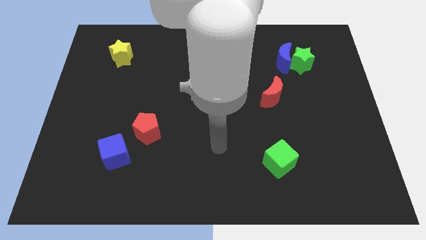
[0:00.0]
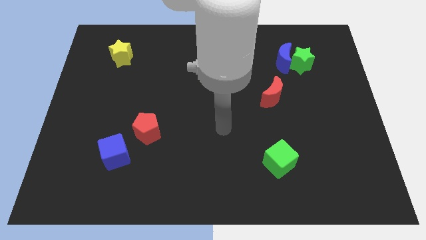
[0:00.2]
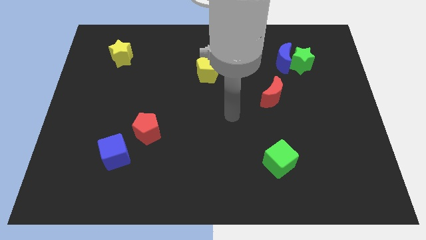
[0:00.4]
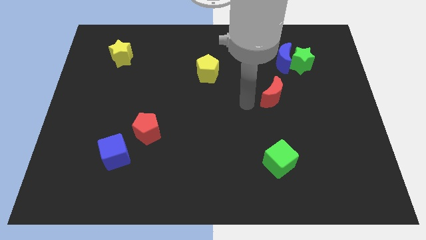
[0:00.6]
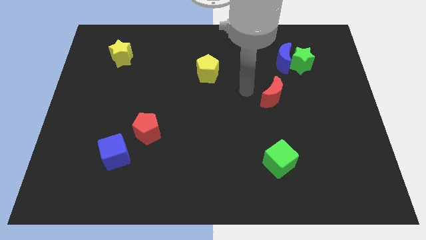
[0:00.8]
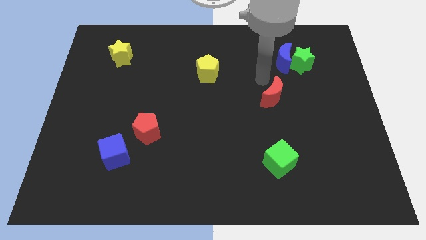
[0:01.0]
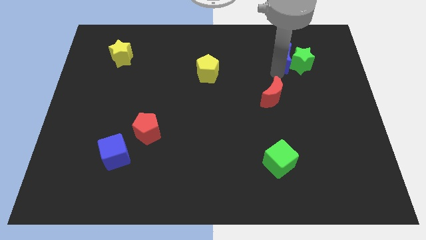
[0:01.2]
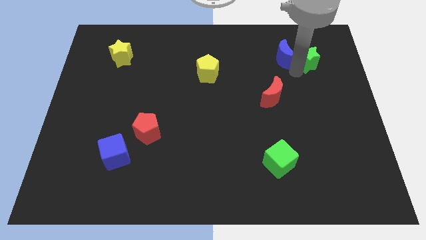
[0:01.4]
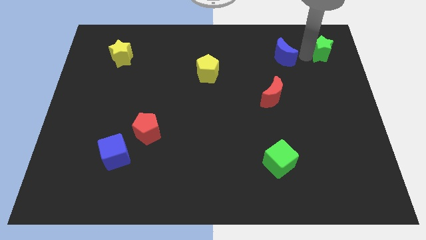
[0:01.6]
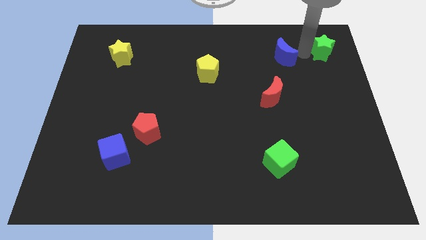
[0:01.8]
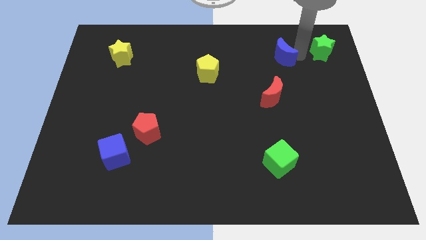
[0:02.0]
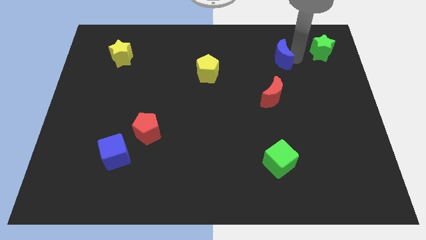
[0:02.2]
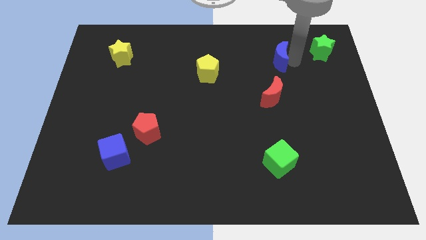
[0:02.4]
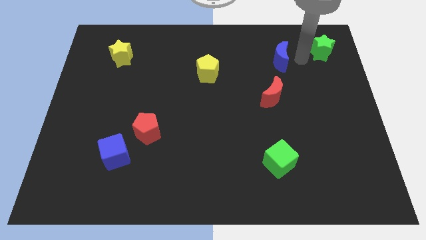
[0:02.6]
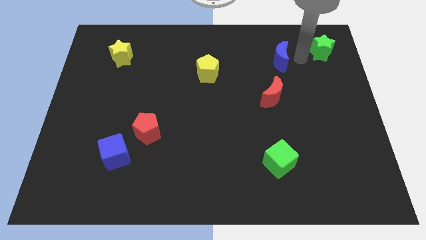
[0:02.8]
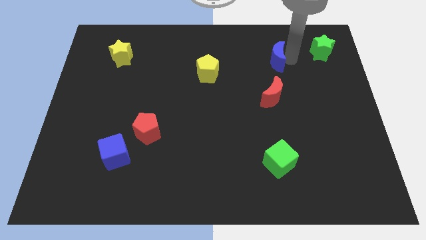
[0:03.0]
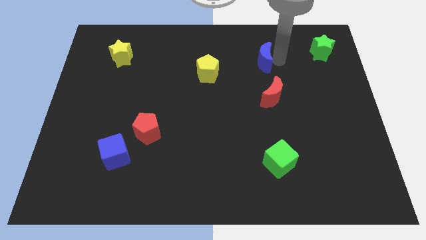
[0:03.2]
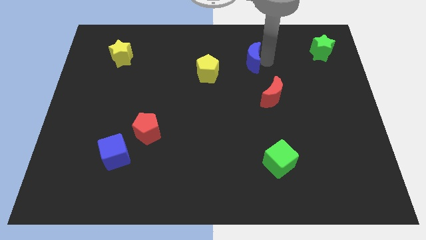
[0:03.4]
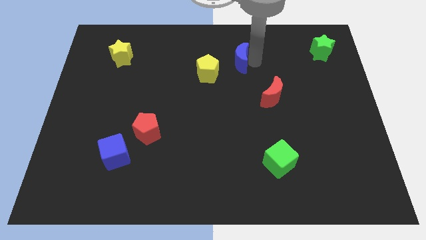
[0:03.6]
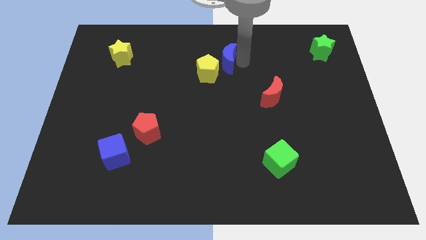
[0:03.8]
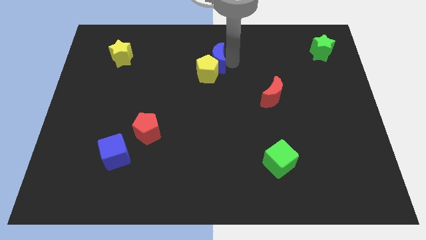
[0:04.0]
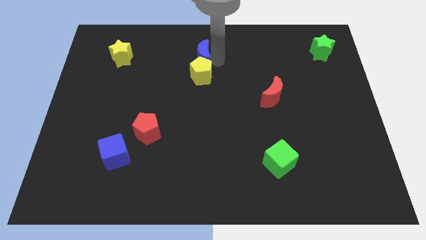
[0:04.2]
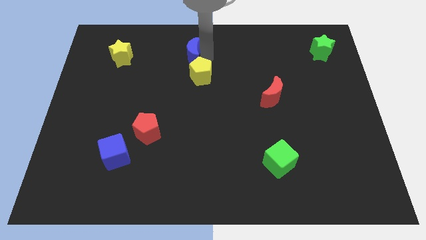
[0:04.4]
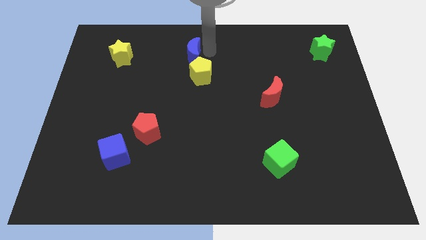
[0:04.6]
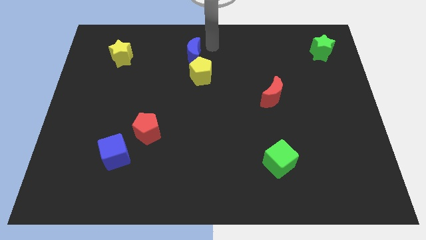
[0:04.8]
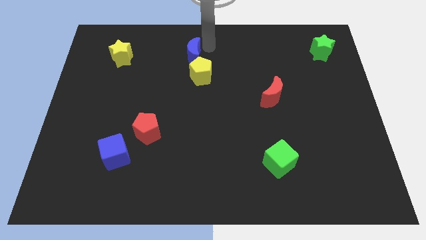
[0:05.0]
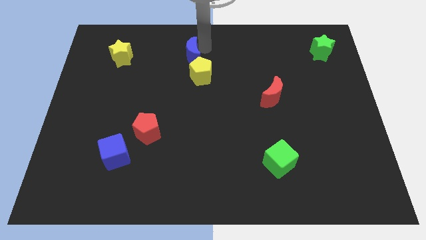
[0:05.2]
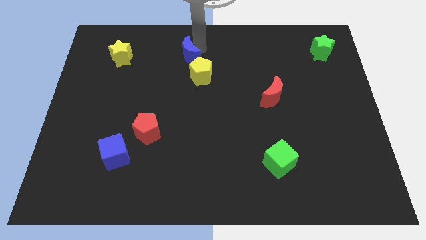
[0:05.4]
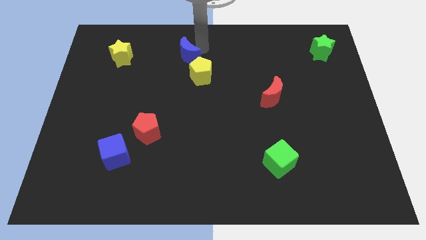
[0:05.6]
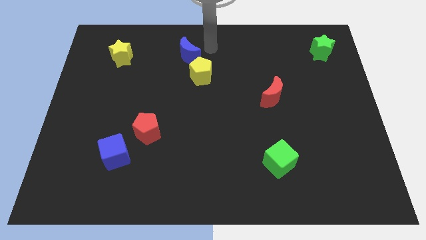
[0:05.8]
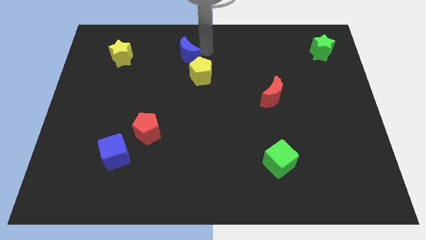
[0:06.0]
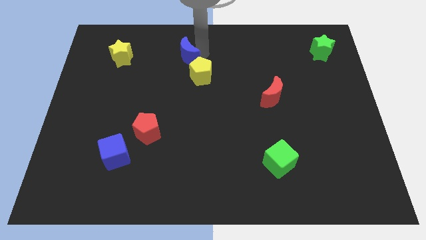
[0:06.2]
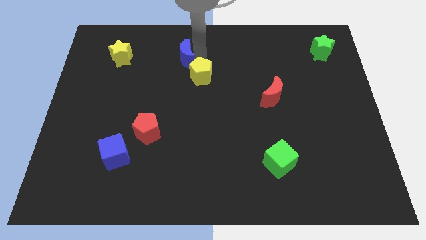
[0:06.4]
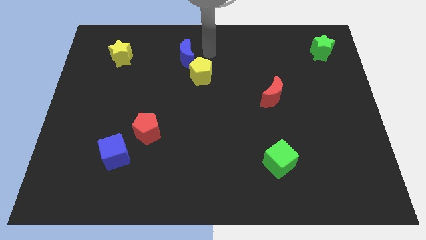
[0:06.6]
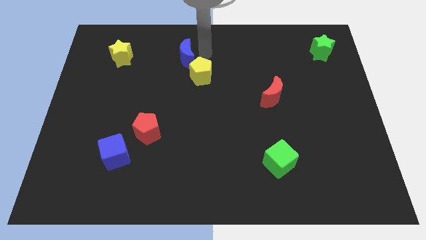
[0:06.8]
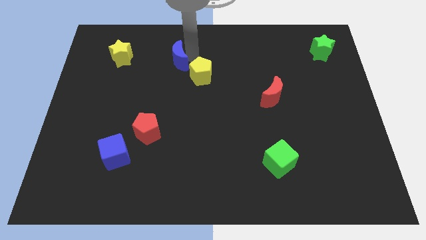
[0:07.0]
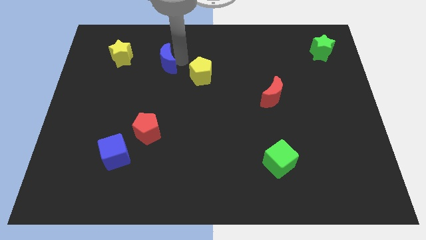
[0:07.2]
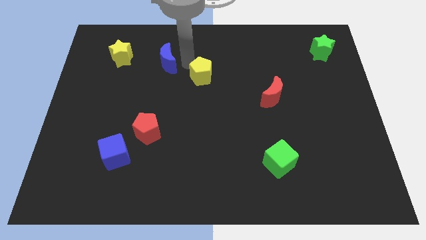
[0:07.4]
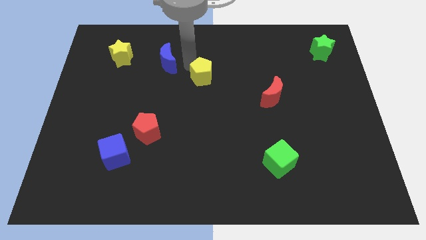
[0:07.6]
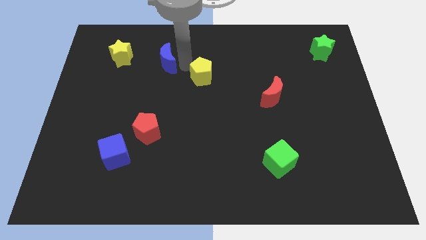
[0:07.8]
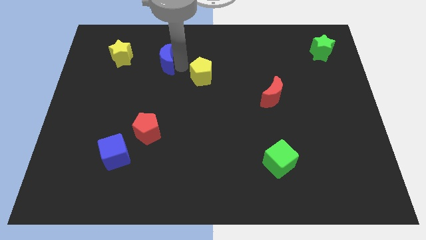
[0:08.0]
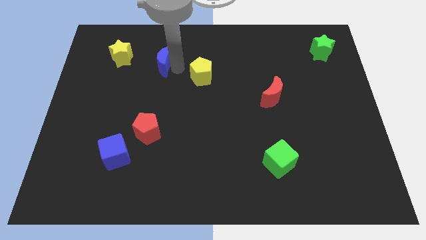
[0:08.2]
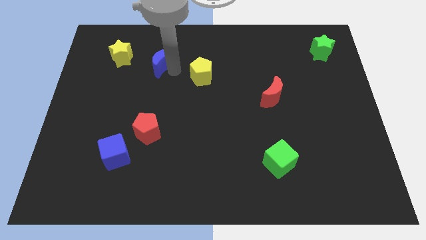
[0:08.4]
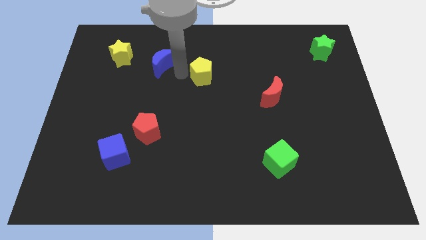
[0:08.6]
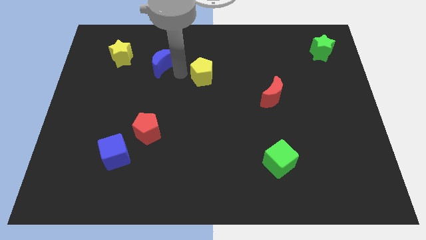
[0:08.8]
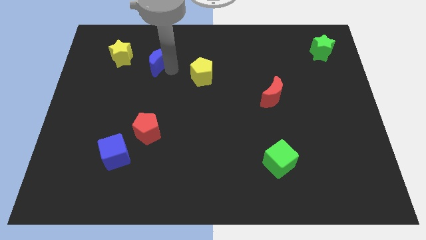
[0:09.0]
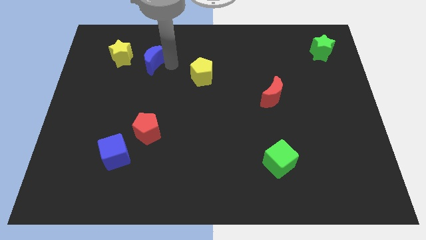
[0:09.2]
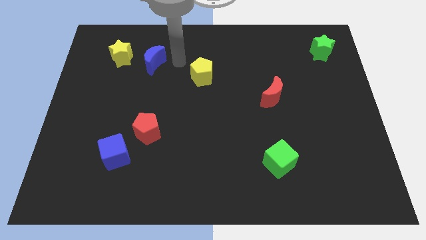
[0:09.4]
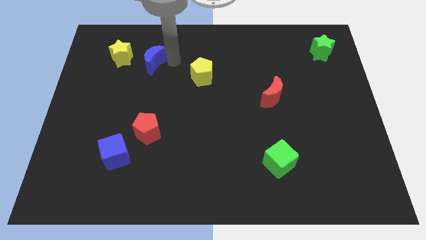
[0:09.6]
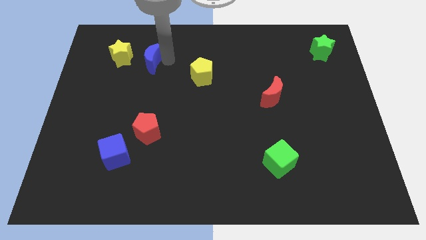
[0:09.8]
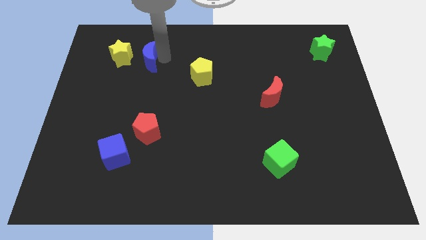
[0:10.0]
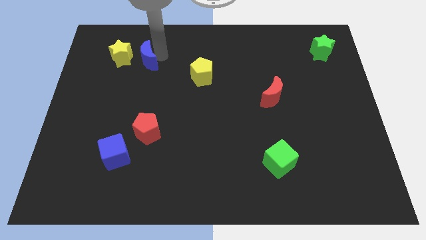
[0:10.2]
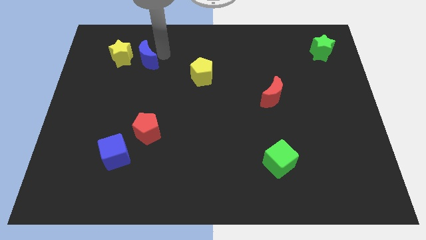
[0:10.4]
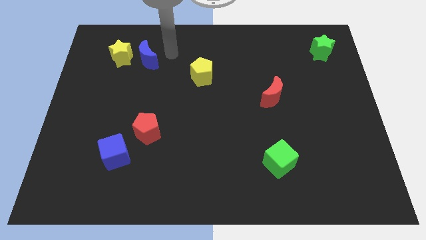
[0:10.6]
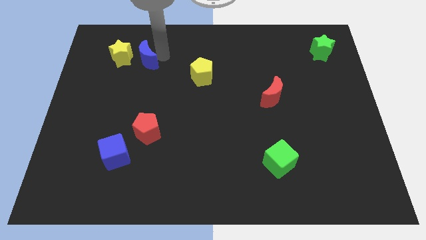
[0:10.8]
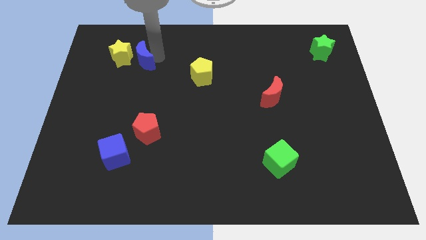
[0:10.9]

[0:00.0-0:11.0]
put the blue moon to the yellow star

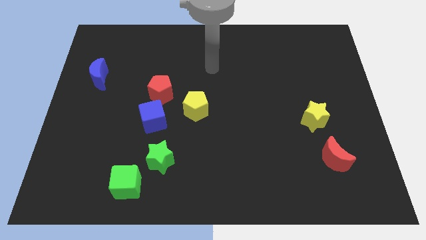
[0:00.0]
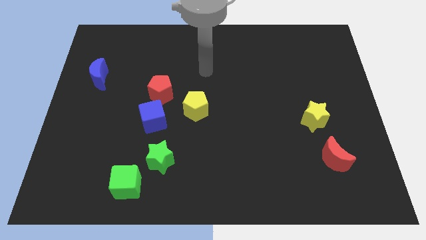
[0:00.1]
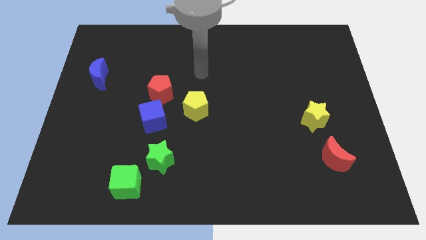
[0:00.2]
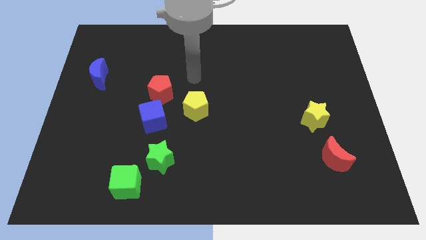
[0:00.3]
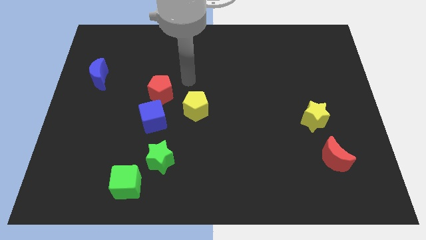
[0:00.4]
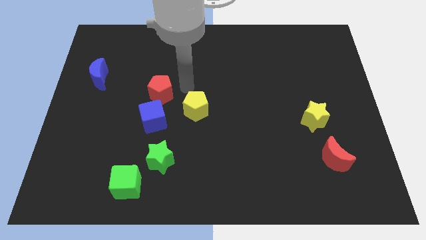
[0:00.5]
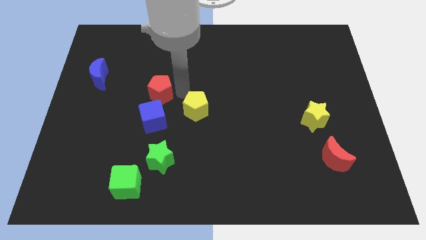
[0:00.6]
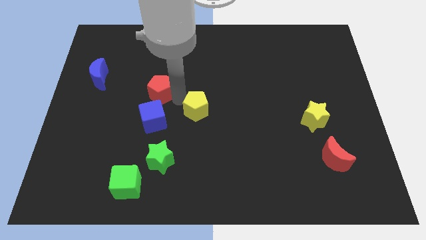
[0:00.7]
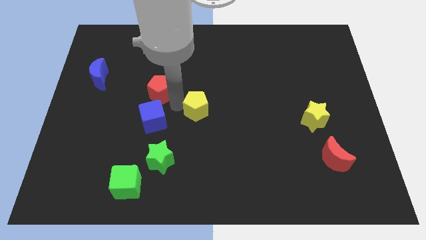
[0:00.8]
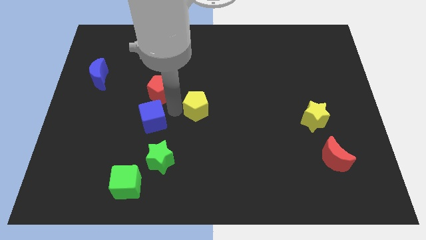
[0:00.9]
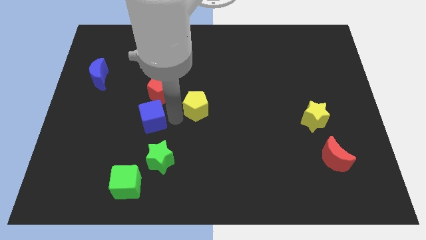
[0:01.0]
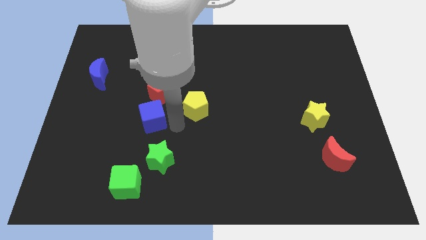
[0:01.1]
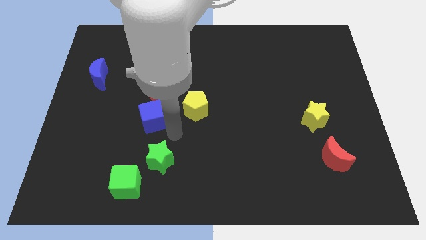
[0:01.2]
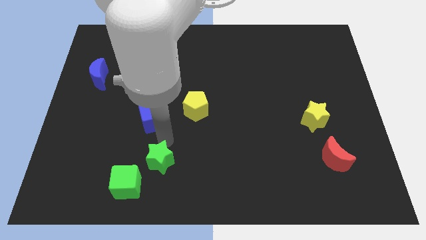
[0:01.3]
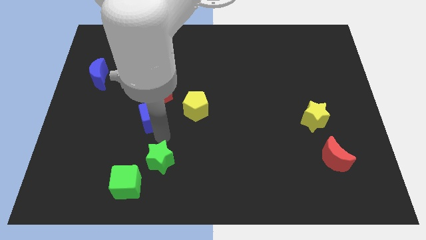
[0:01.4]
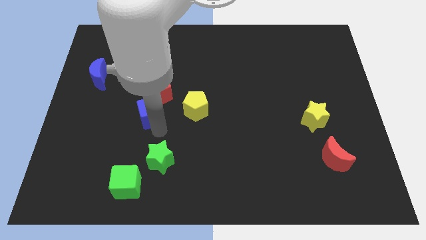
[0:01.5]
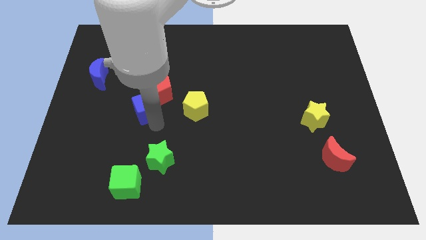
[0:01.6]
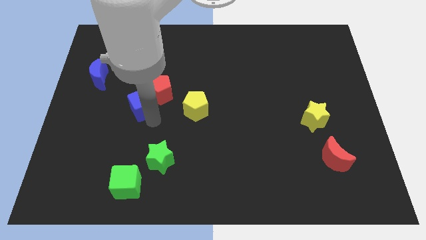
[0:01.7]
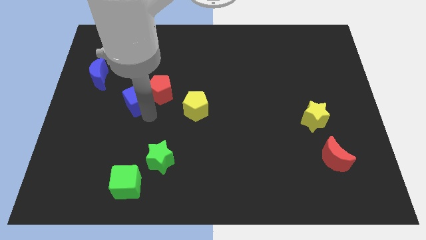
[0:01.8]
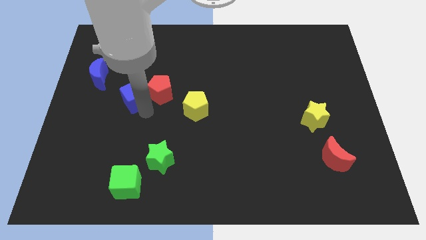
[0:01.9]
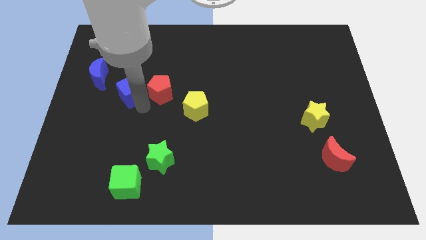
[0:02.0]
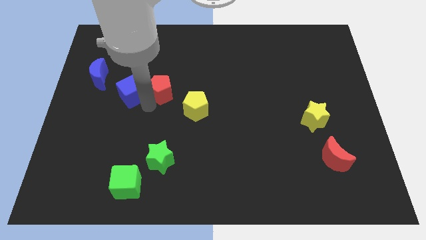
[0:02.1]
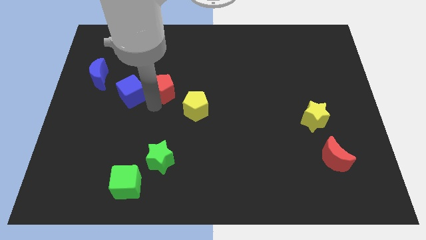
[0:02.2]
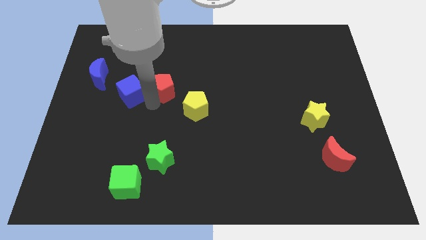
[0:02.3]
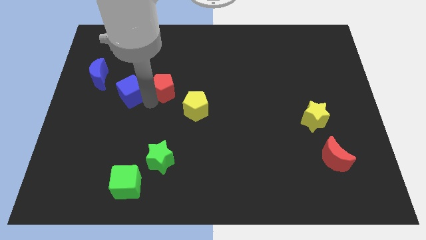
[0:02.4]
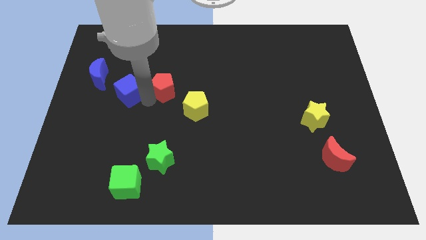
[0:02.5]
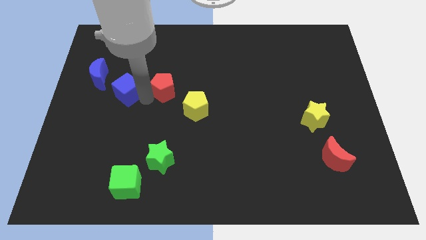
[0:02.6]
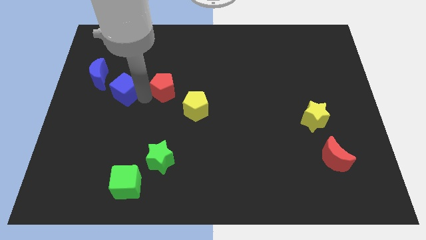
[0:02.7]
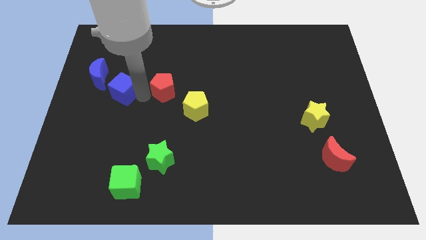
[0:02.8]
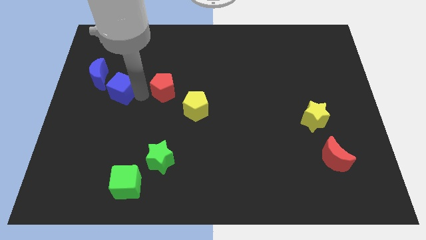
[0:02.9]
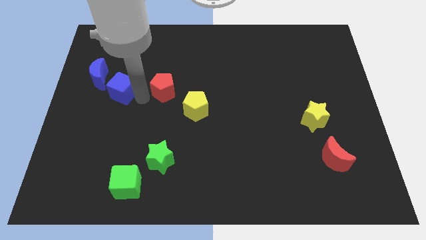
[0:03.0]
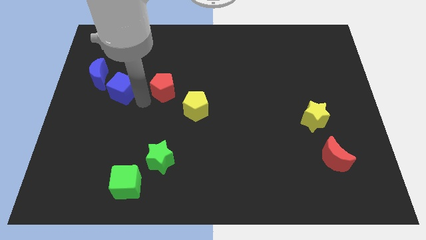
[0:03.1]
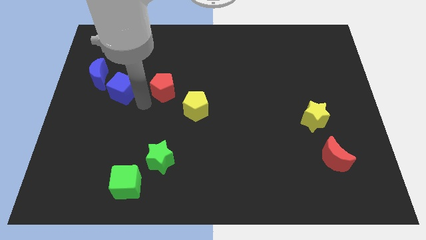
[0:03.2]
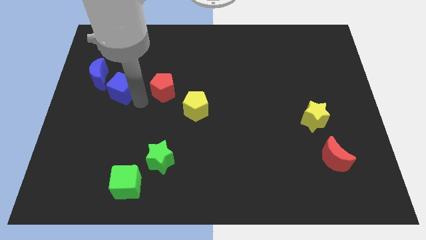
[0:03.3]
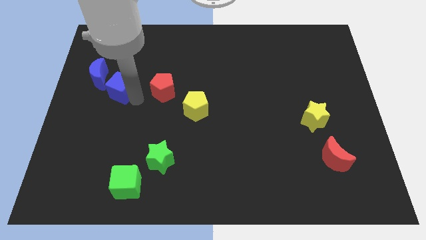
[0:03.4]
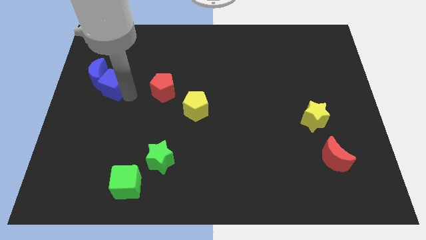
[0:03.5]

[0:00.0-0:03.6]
slide the blue cube to the blue moon
